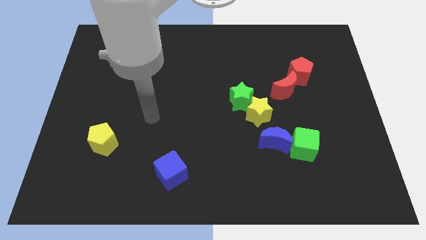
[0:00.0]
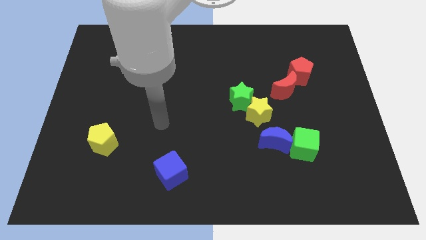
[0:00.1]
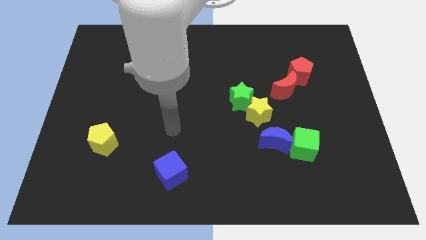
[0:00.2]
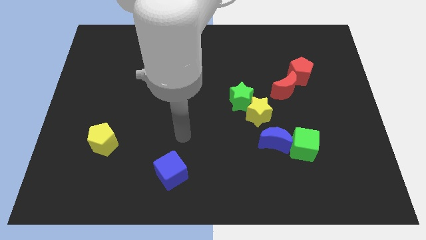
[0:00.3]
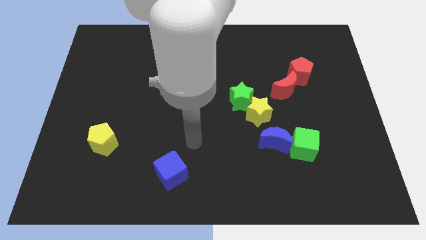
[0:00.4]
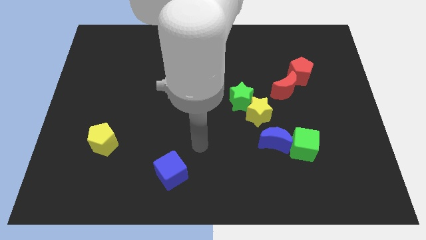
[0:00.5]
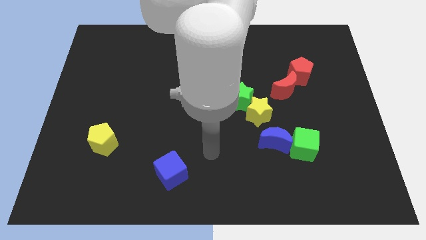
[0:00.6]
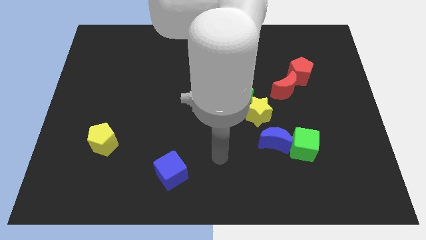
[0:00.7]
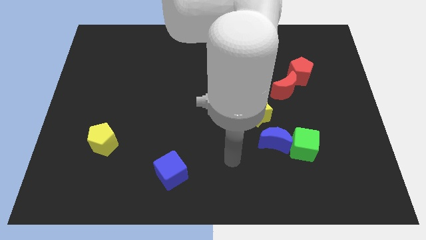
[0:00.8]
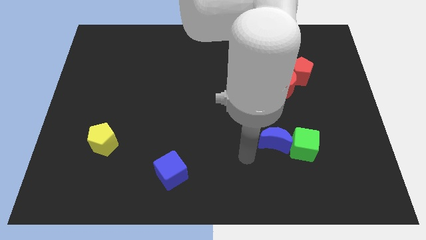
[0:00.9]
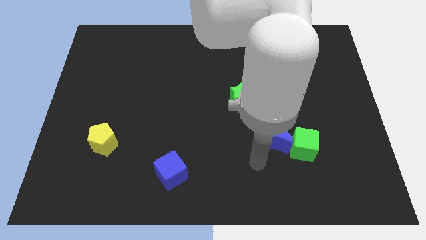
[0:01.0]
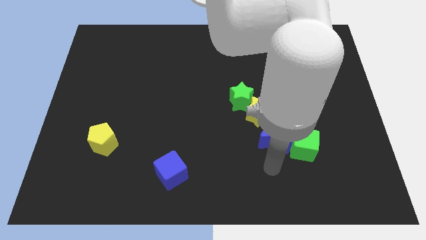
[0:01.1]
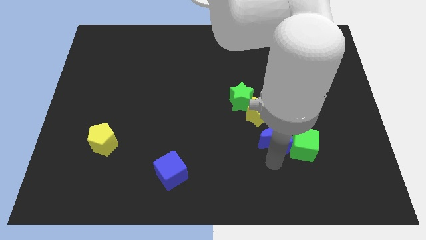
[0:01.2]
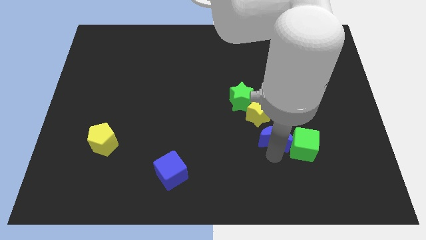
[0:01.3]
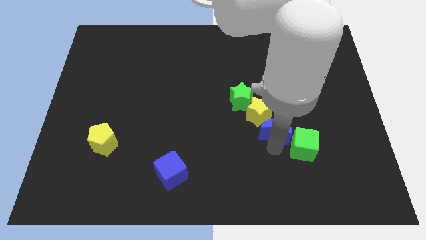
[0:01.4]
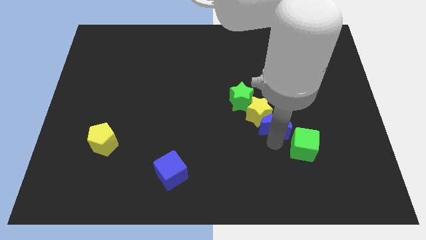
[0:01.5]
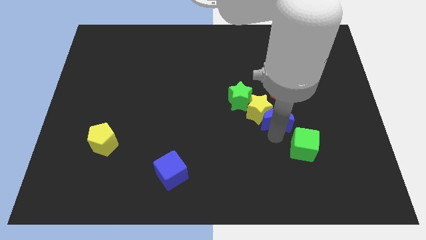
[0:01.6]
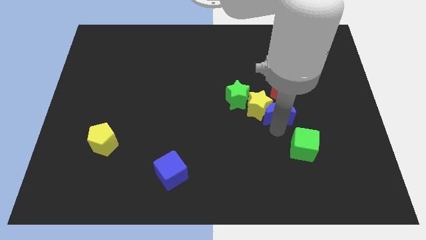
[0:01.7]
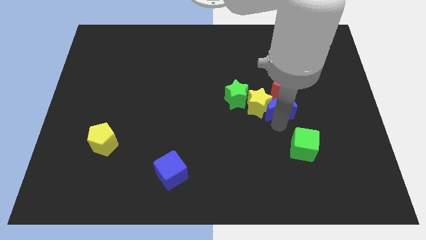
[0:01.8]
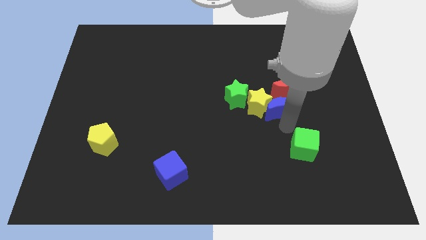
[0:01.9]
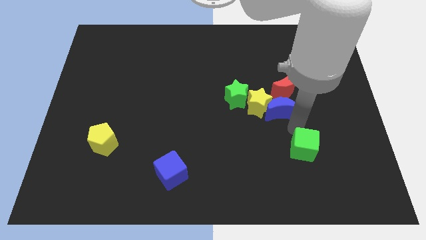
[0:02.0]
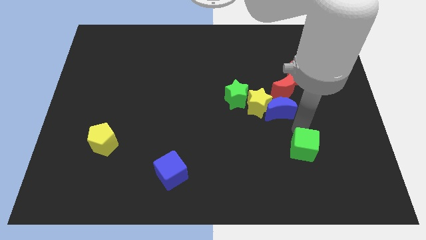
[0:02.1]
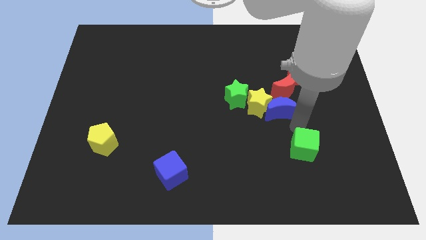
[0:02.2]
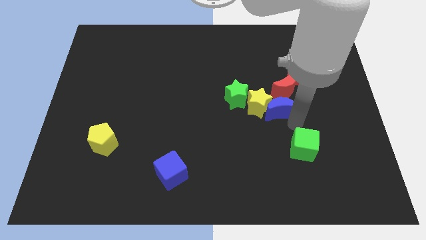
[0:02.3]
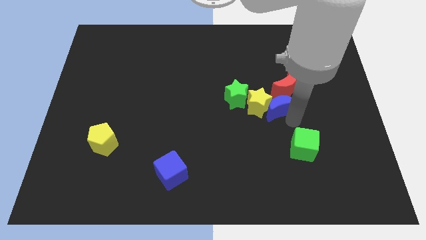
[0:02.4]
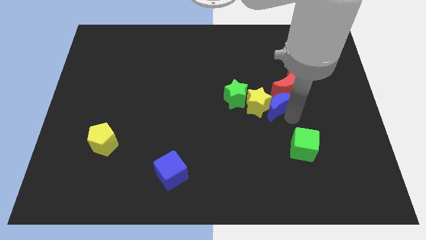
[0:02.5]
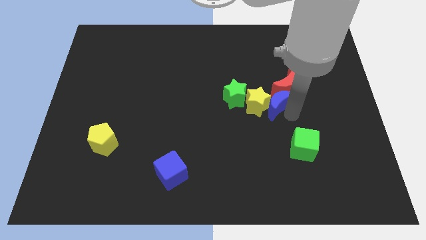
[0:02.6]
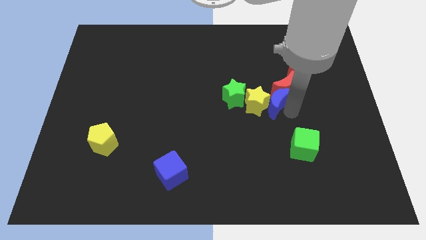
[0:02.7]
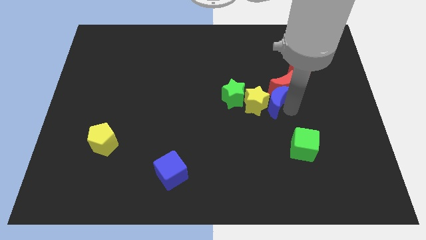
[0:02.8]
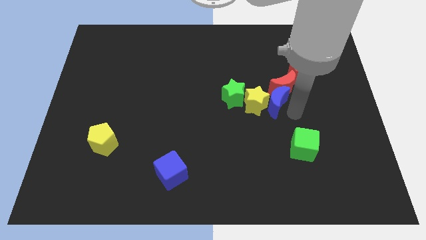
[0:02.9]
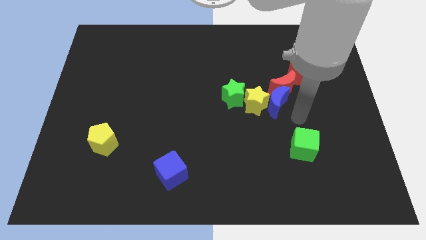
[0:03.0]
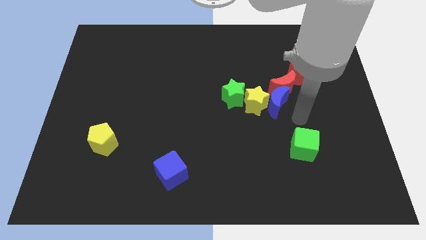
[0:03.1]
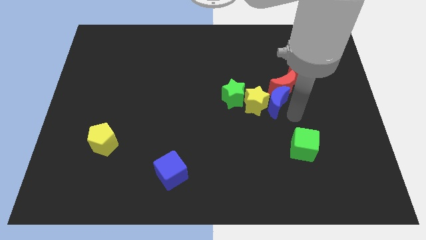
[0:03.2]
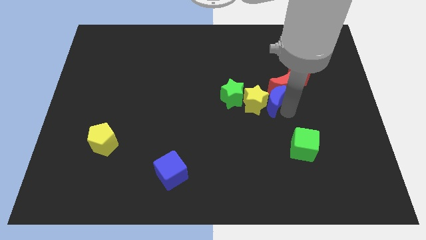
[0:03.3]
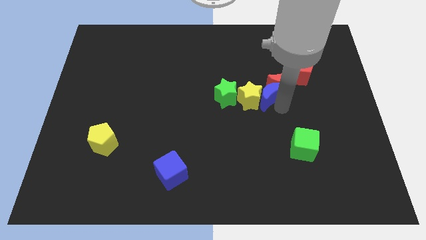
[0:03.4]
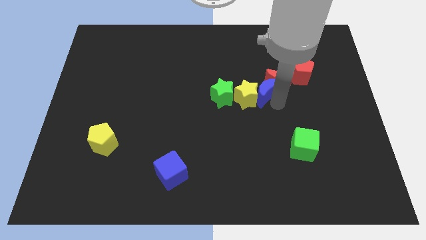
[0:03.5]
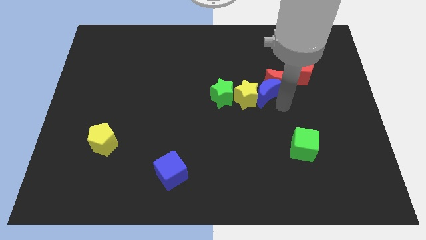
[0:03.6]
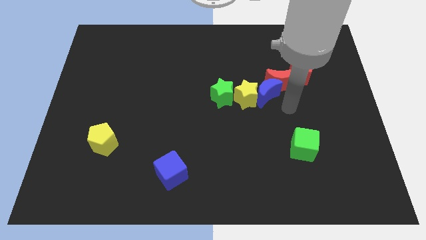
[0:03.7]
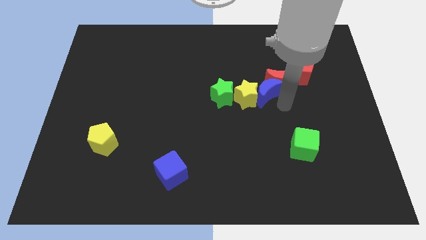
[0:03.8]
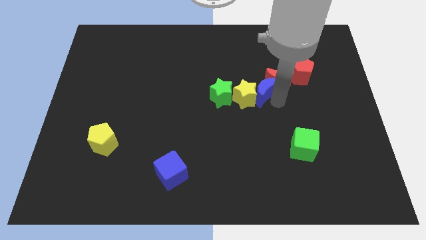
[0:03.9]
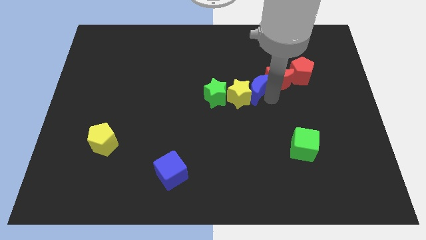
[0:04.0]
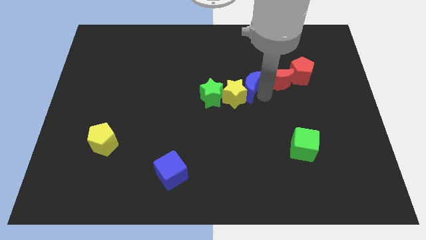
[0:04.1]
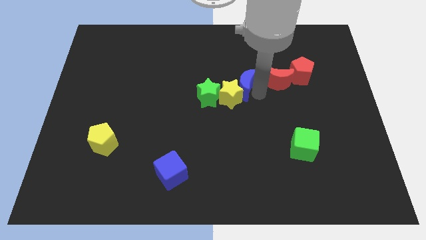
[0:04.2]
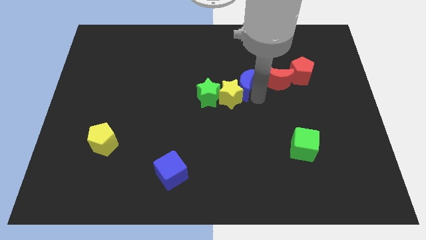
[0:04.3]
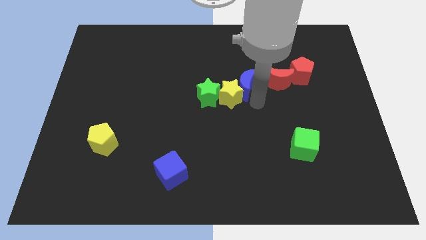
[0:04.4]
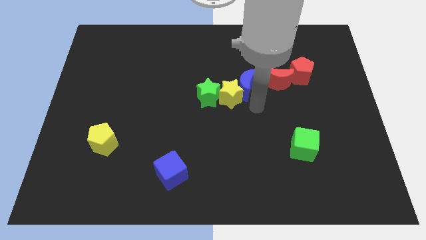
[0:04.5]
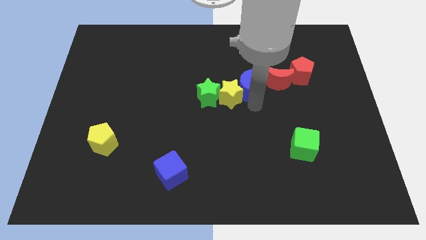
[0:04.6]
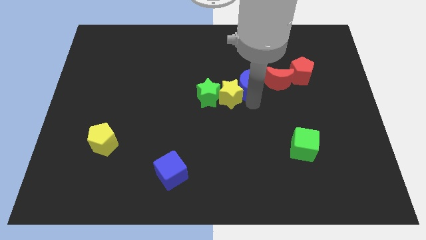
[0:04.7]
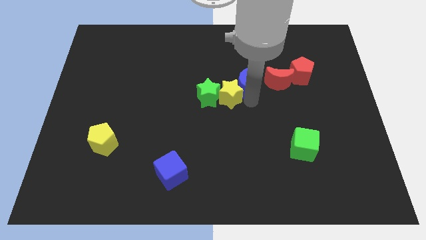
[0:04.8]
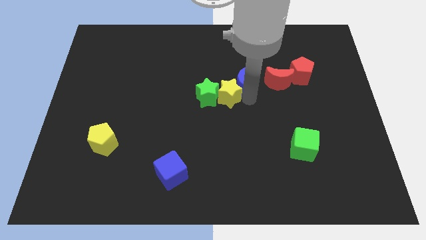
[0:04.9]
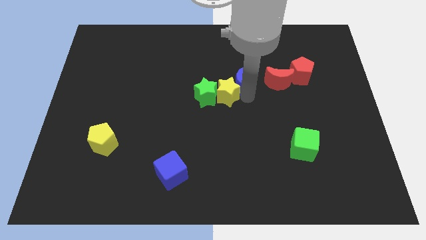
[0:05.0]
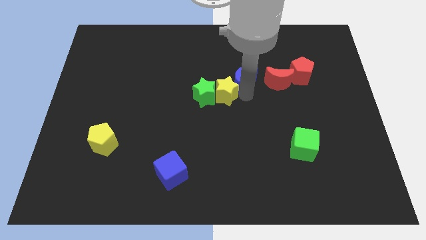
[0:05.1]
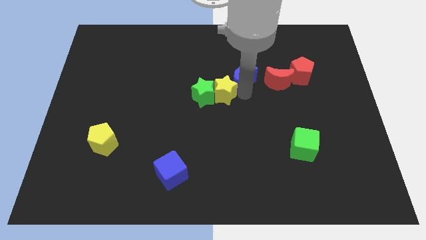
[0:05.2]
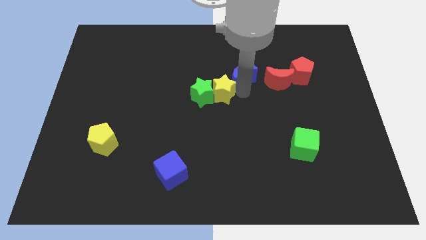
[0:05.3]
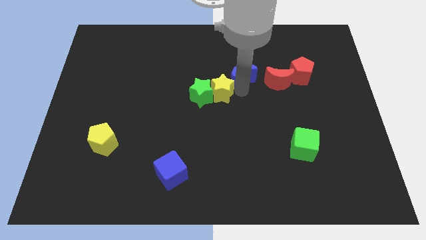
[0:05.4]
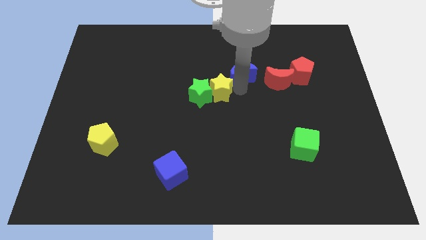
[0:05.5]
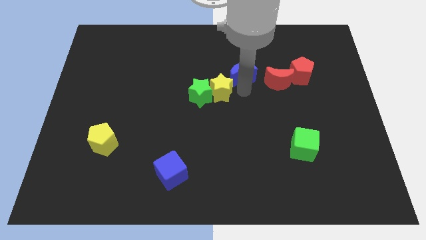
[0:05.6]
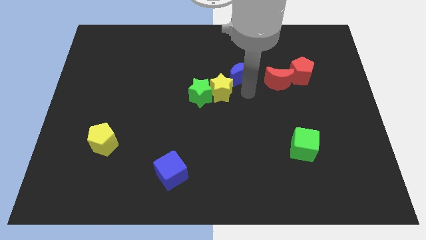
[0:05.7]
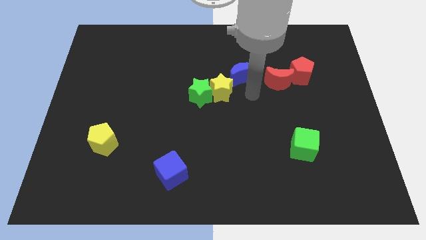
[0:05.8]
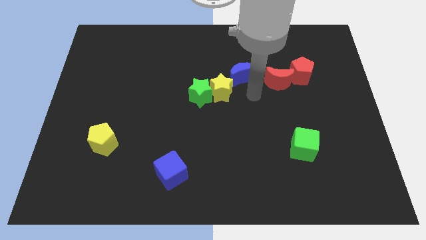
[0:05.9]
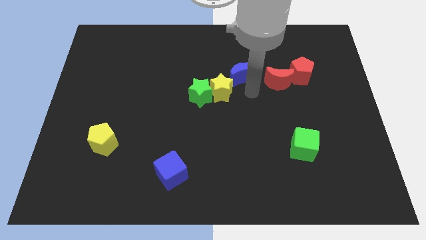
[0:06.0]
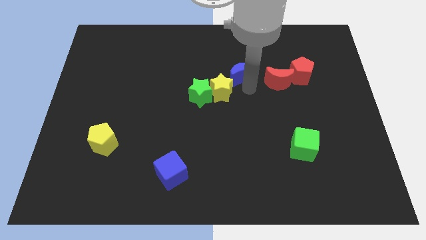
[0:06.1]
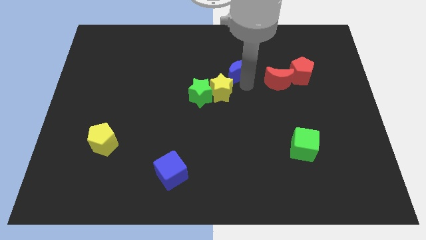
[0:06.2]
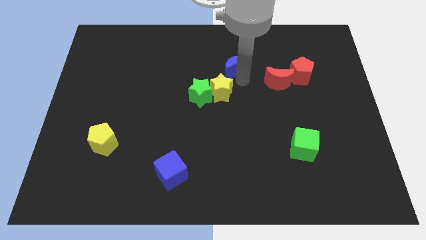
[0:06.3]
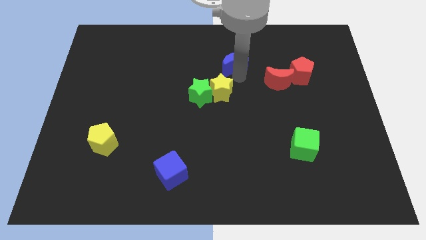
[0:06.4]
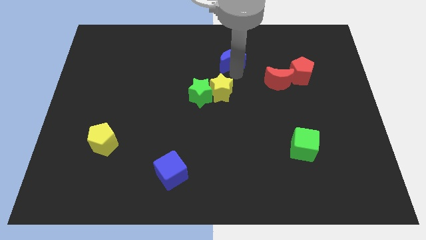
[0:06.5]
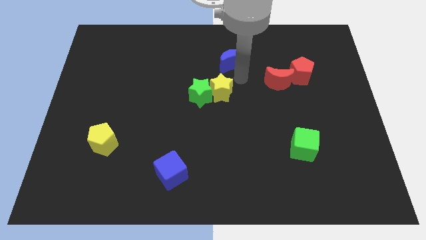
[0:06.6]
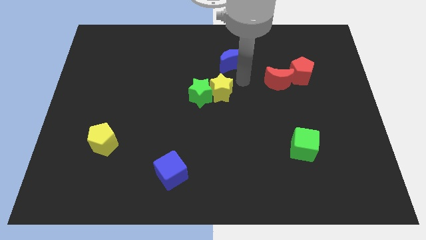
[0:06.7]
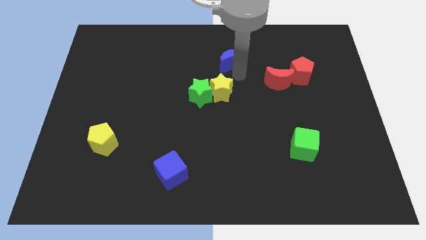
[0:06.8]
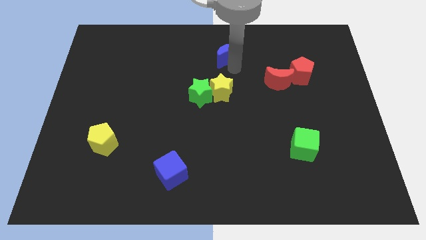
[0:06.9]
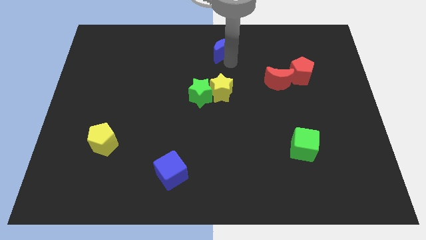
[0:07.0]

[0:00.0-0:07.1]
push the blue moon to the top
